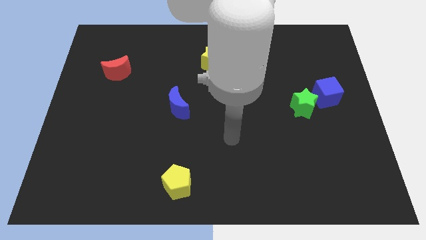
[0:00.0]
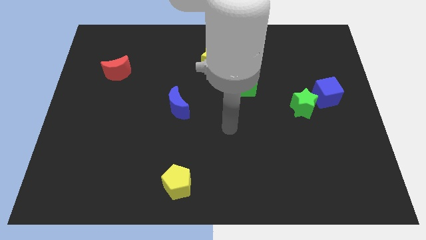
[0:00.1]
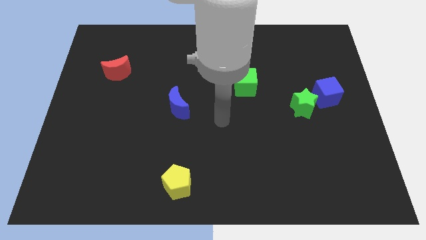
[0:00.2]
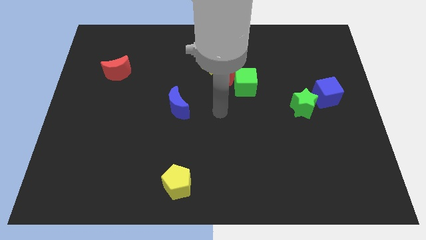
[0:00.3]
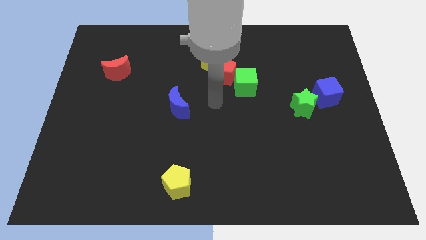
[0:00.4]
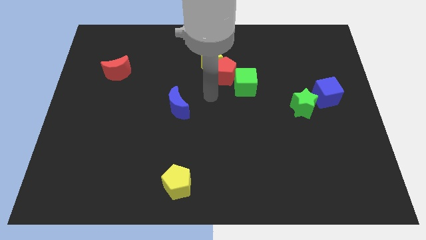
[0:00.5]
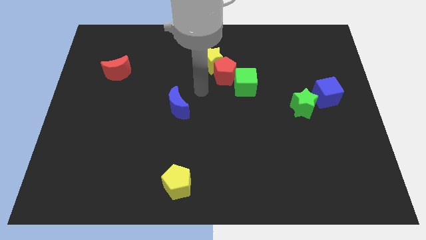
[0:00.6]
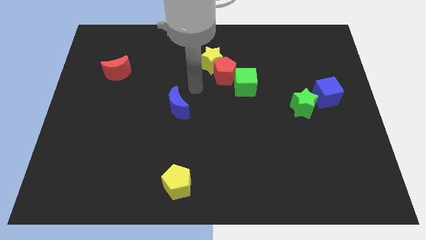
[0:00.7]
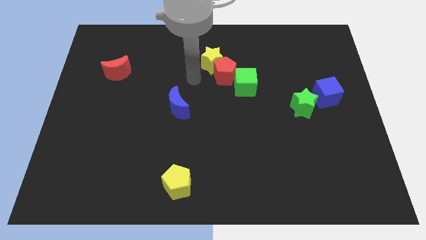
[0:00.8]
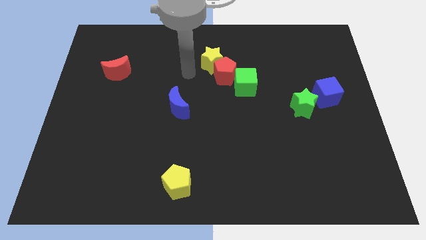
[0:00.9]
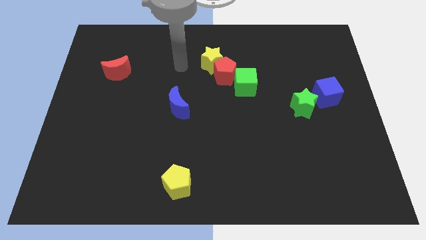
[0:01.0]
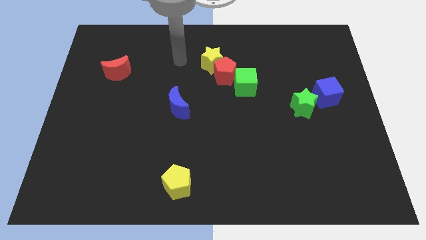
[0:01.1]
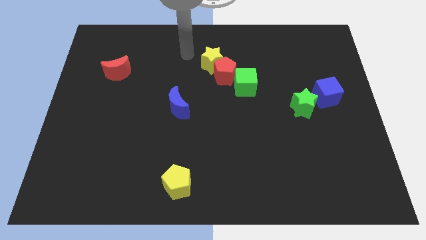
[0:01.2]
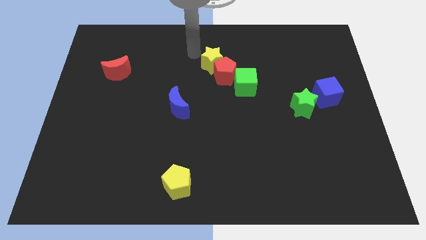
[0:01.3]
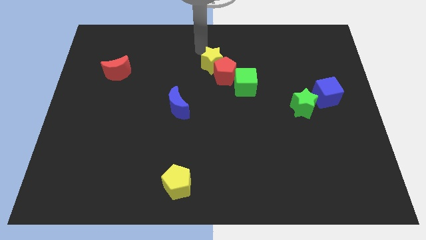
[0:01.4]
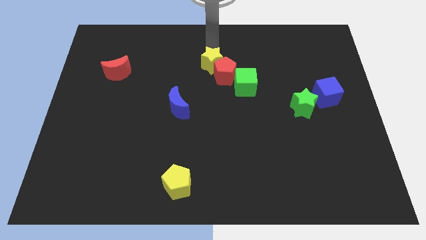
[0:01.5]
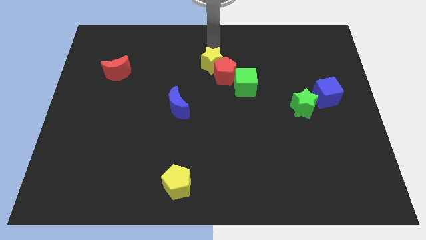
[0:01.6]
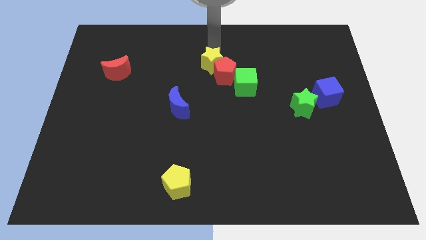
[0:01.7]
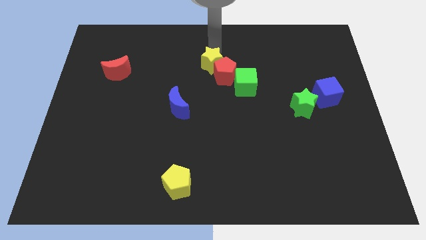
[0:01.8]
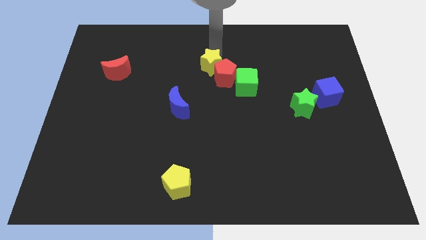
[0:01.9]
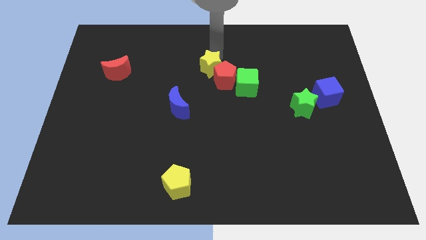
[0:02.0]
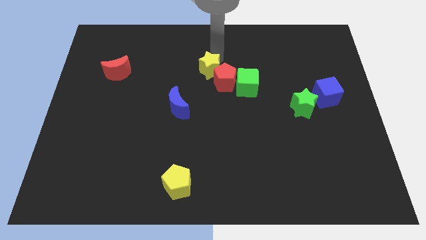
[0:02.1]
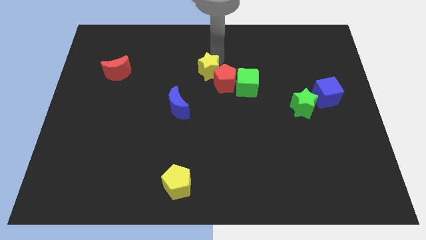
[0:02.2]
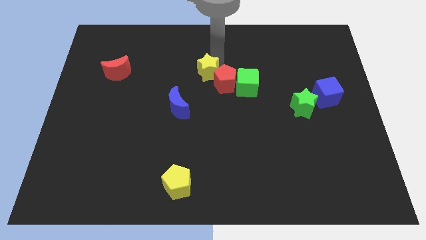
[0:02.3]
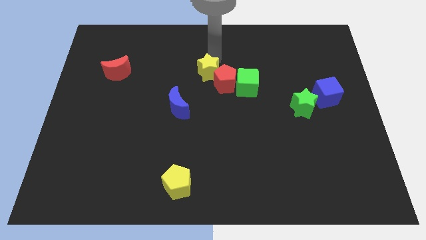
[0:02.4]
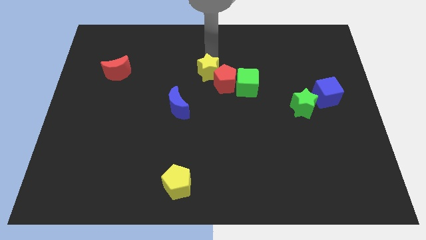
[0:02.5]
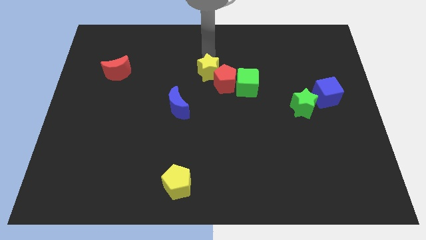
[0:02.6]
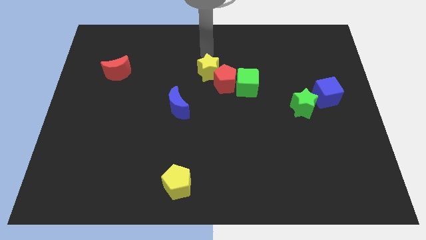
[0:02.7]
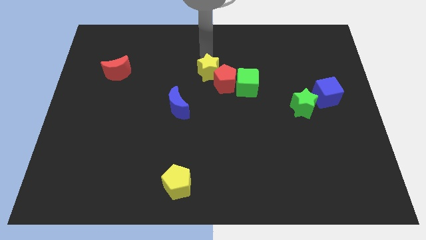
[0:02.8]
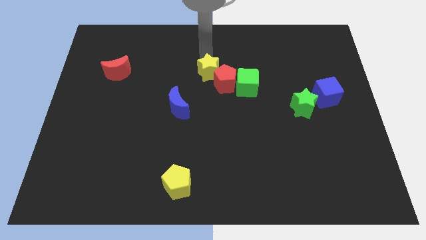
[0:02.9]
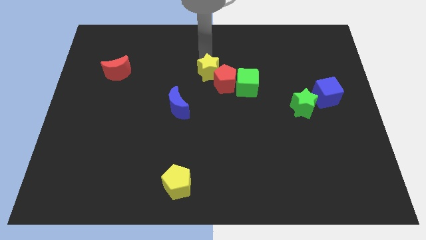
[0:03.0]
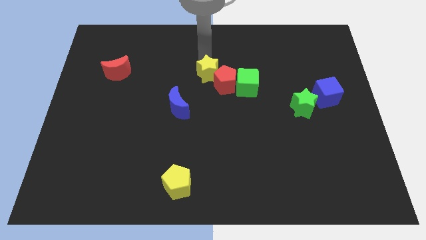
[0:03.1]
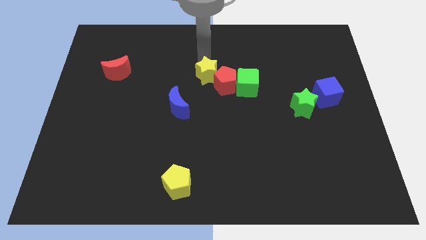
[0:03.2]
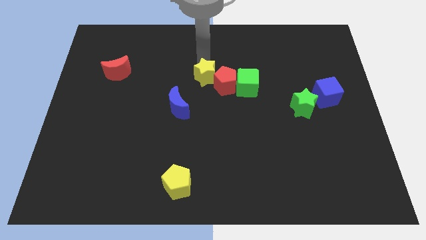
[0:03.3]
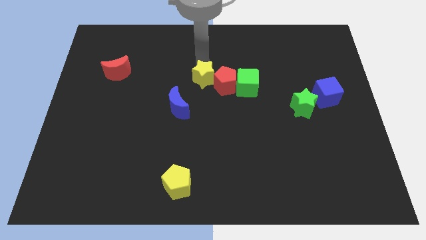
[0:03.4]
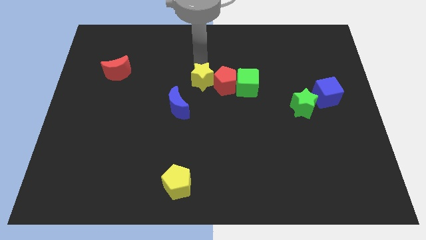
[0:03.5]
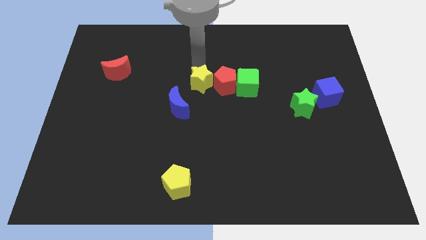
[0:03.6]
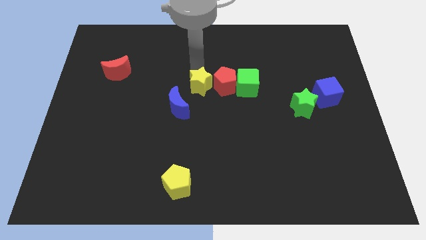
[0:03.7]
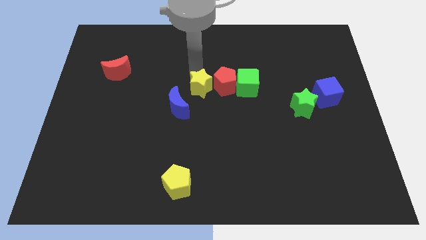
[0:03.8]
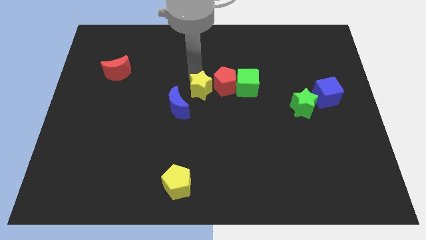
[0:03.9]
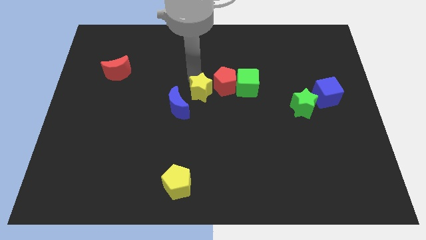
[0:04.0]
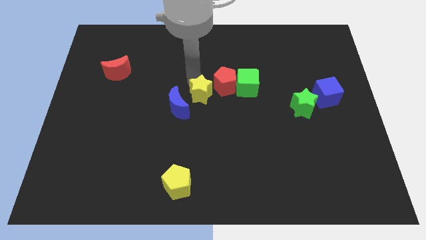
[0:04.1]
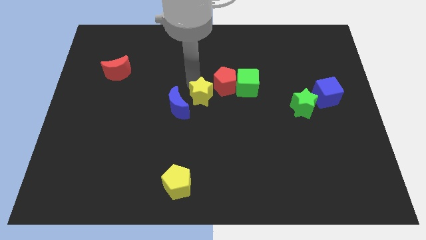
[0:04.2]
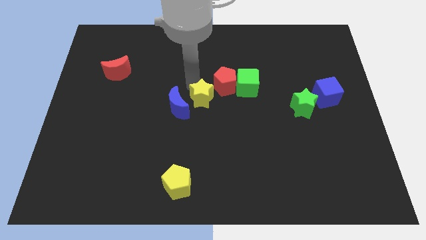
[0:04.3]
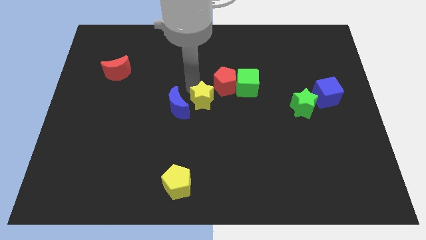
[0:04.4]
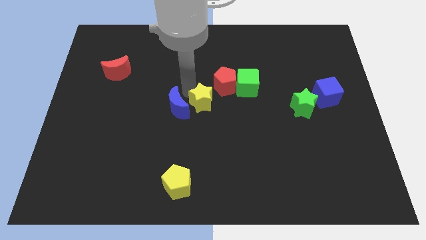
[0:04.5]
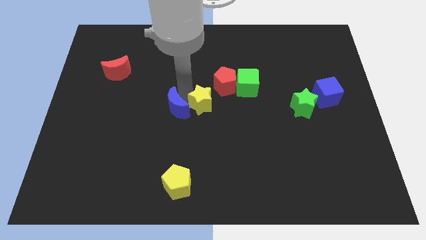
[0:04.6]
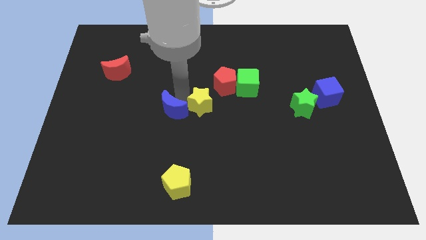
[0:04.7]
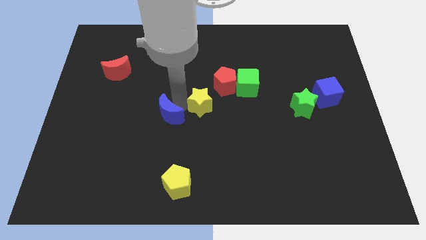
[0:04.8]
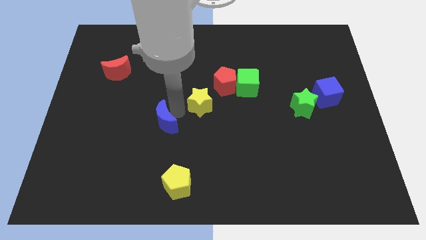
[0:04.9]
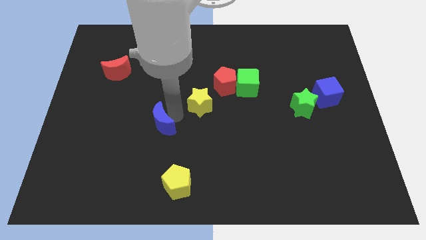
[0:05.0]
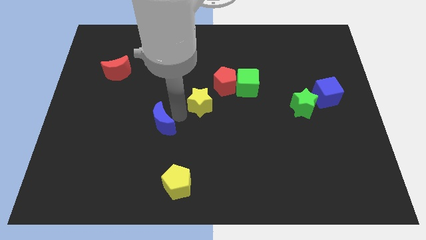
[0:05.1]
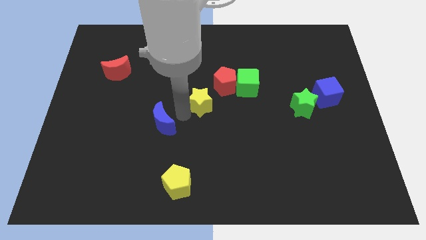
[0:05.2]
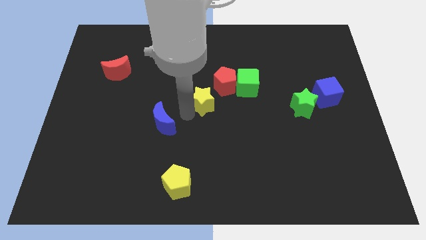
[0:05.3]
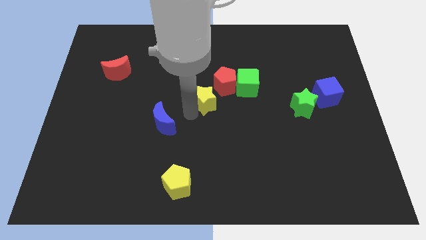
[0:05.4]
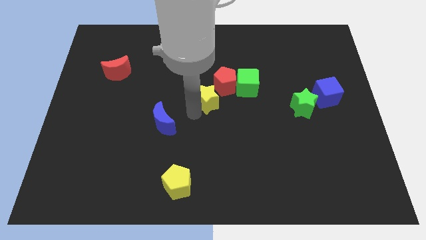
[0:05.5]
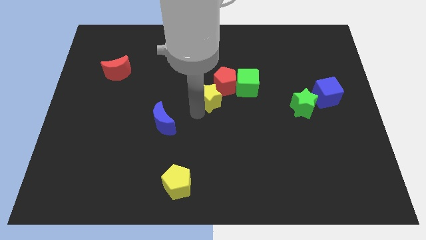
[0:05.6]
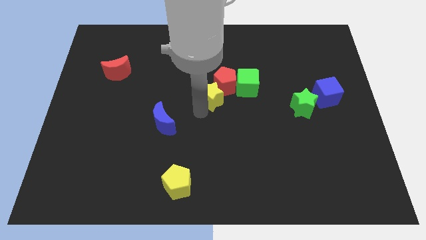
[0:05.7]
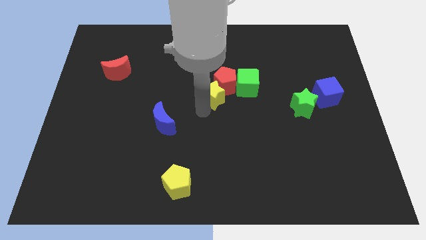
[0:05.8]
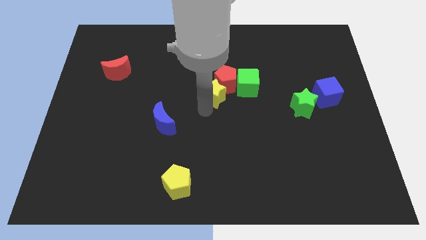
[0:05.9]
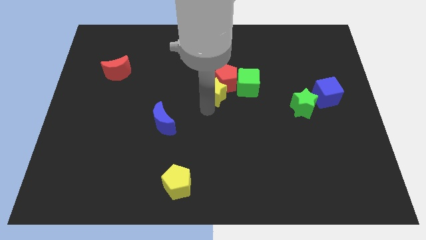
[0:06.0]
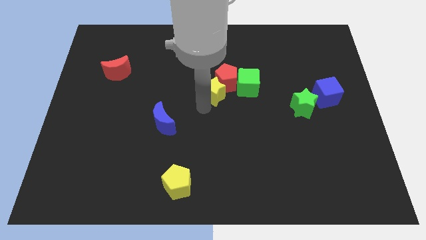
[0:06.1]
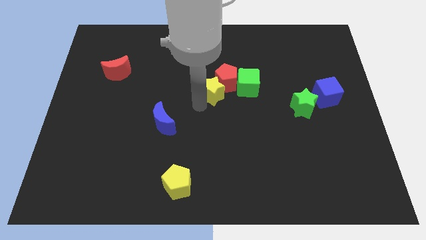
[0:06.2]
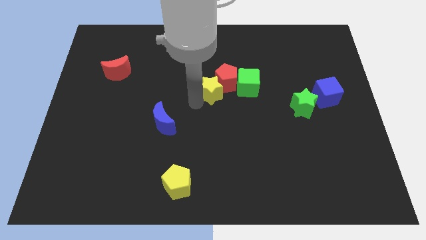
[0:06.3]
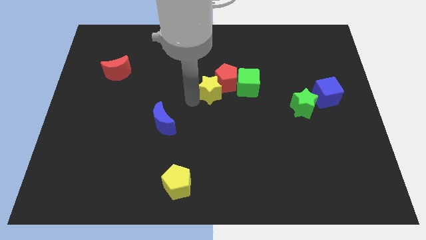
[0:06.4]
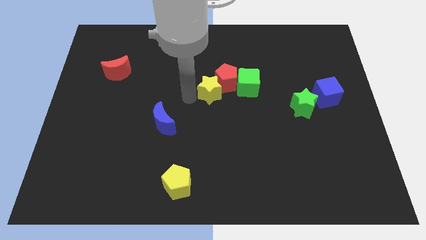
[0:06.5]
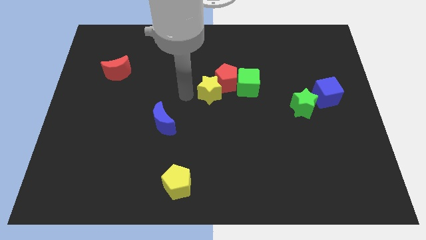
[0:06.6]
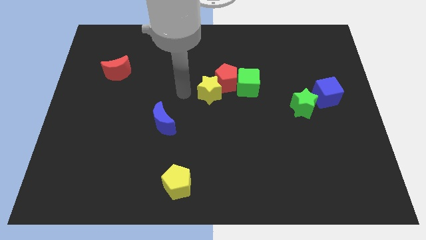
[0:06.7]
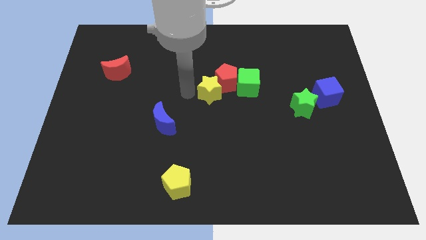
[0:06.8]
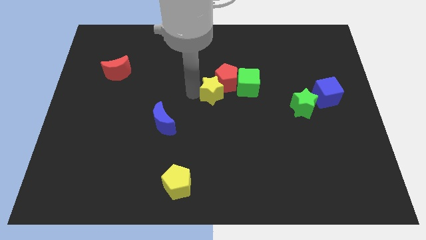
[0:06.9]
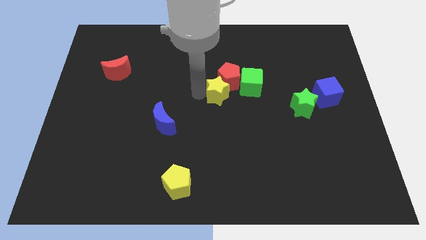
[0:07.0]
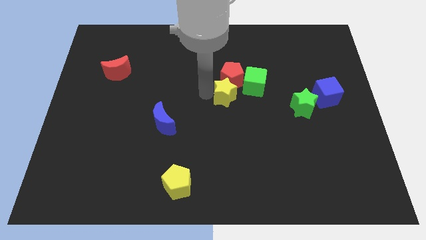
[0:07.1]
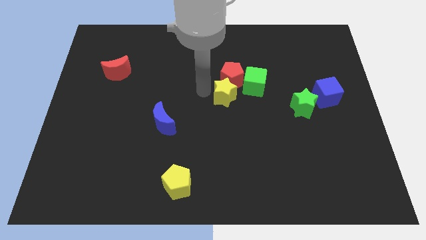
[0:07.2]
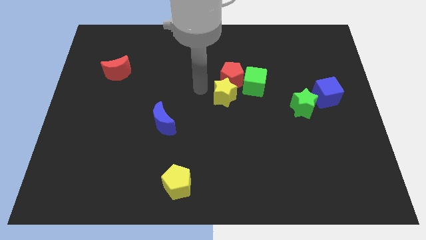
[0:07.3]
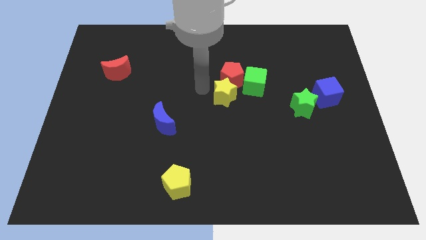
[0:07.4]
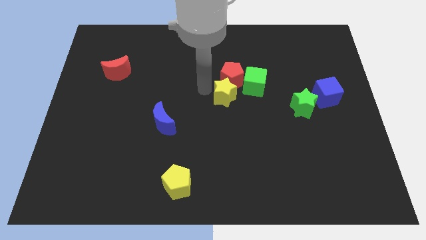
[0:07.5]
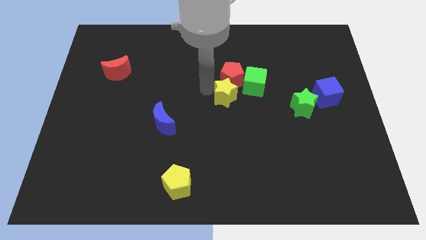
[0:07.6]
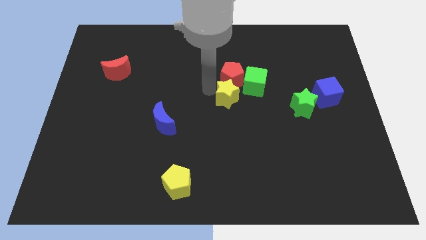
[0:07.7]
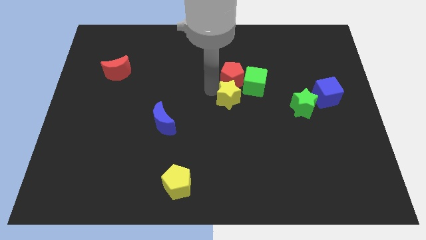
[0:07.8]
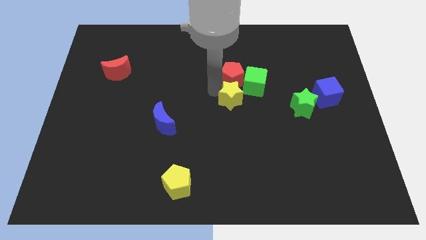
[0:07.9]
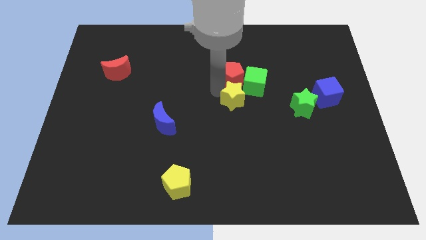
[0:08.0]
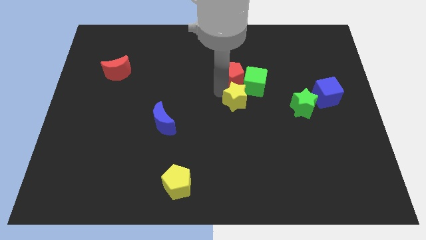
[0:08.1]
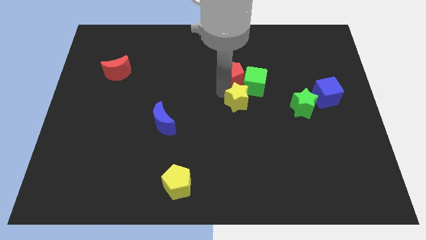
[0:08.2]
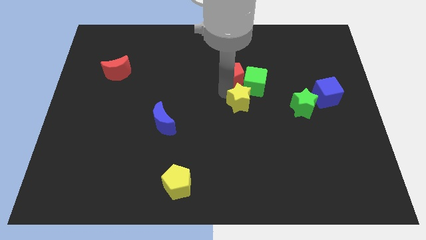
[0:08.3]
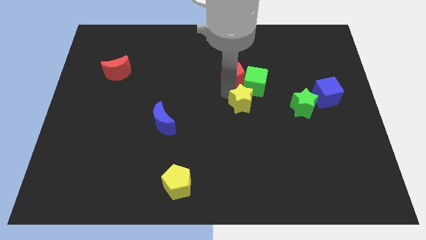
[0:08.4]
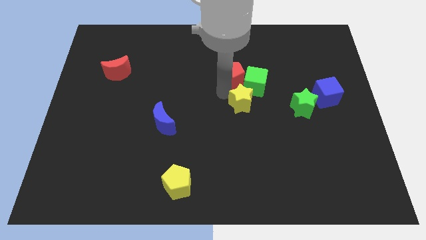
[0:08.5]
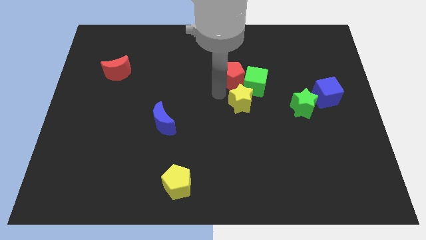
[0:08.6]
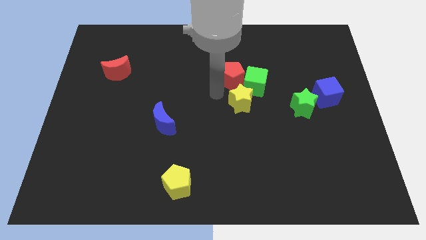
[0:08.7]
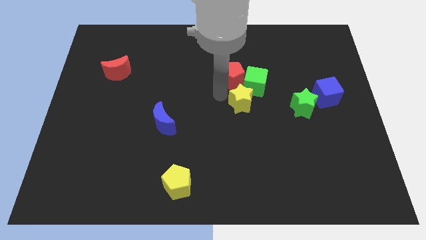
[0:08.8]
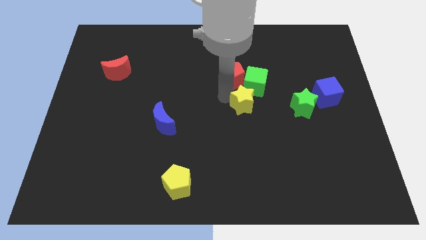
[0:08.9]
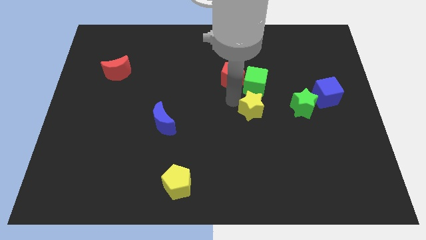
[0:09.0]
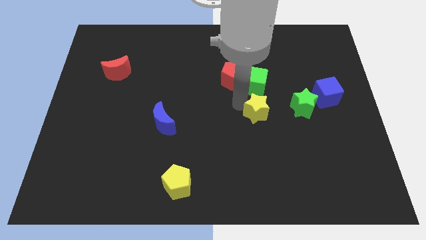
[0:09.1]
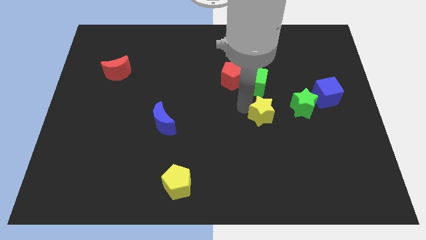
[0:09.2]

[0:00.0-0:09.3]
push the yellow star downwards and to the right
